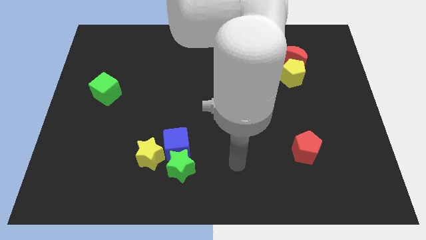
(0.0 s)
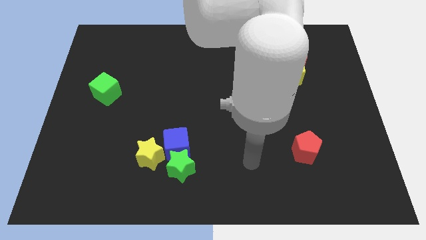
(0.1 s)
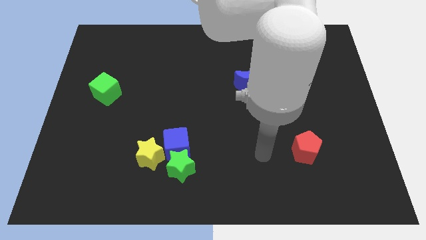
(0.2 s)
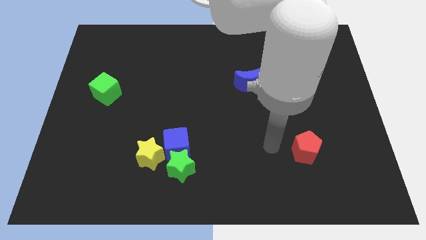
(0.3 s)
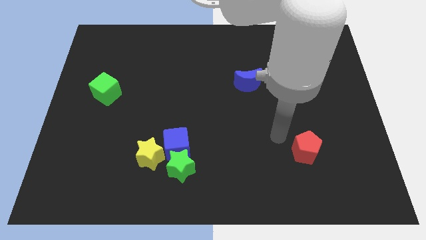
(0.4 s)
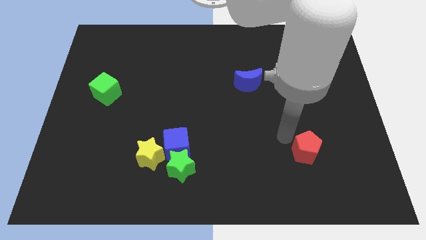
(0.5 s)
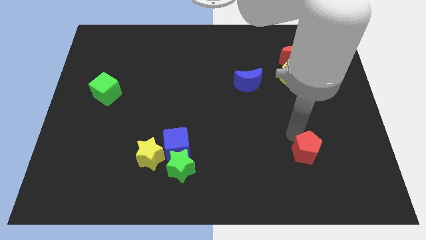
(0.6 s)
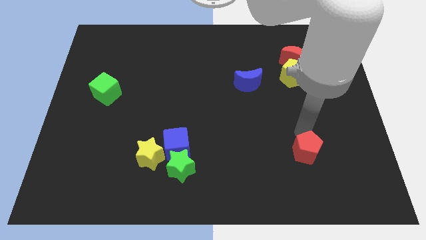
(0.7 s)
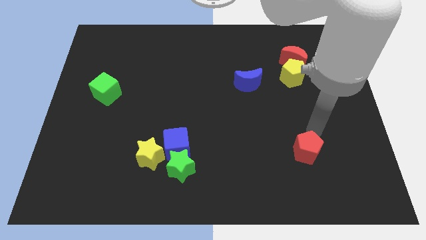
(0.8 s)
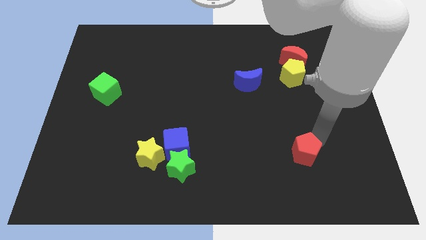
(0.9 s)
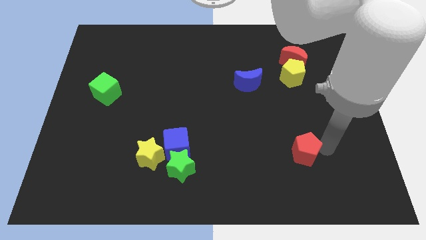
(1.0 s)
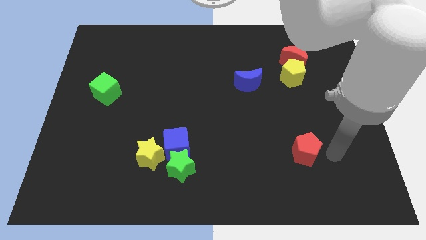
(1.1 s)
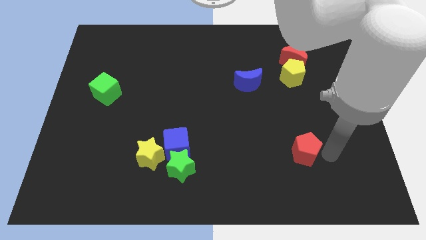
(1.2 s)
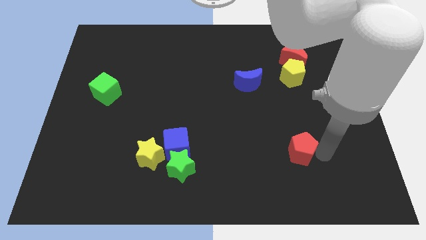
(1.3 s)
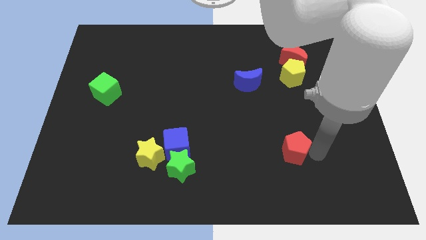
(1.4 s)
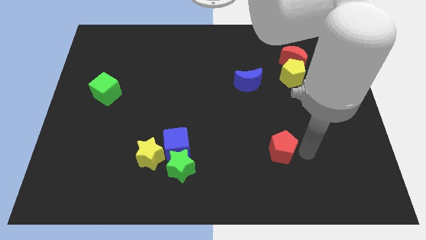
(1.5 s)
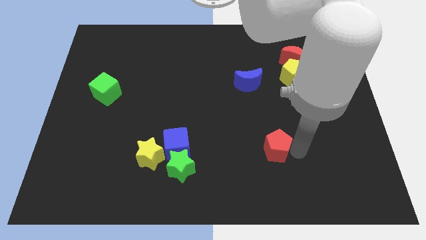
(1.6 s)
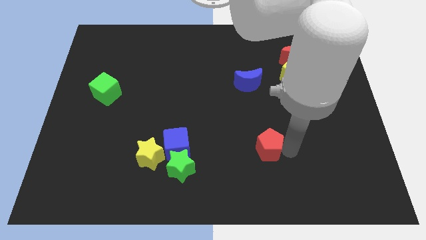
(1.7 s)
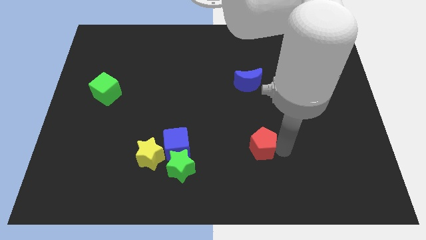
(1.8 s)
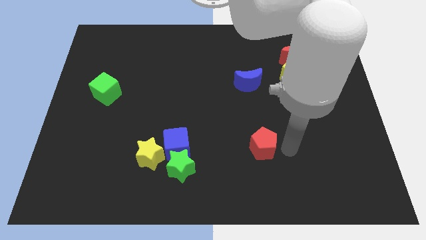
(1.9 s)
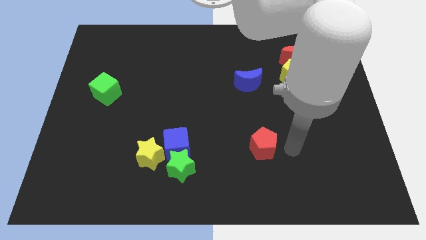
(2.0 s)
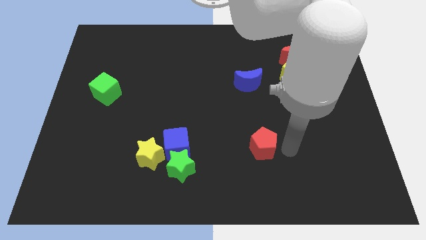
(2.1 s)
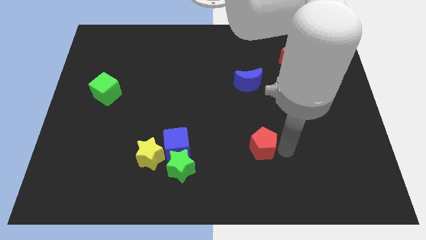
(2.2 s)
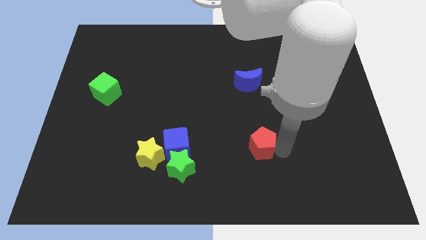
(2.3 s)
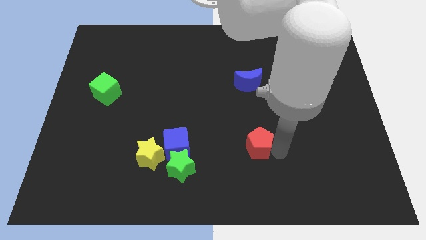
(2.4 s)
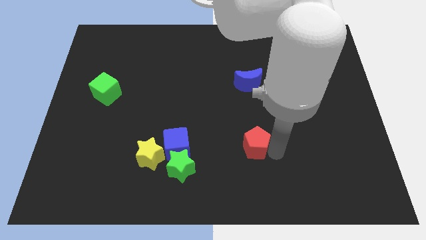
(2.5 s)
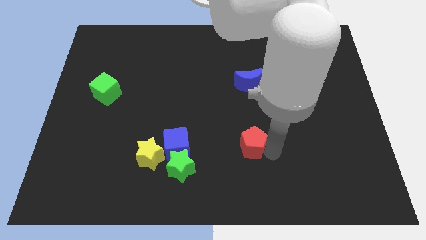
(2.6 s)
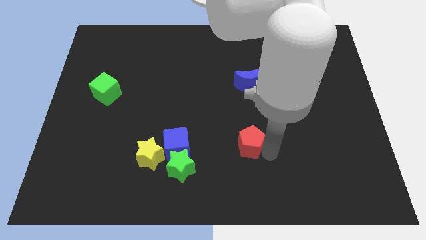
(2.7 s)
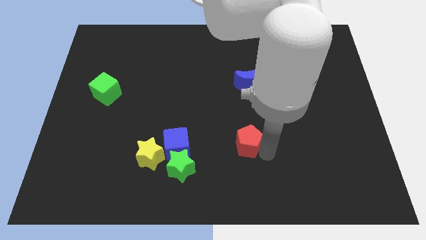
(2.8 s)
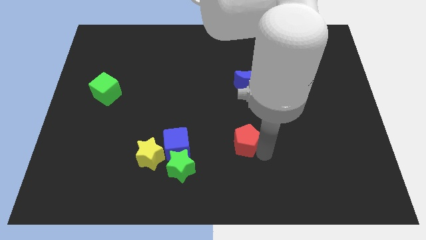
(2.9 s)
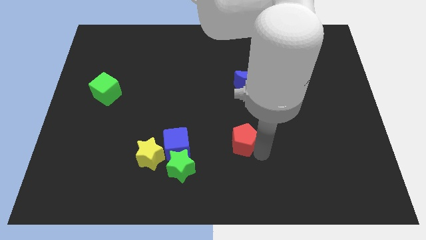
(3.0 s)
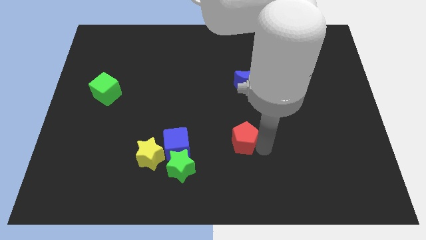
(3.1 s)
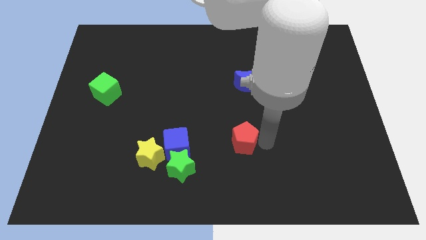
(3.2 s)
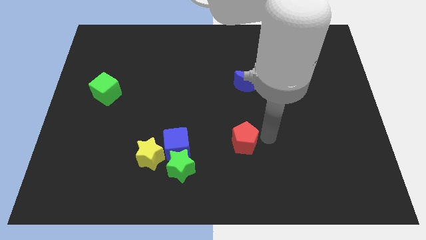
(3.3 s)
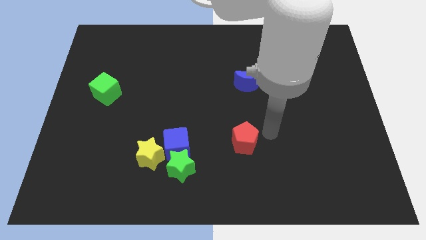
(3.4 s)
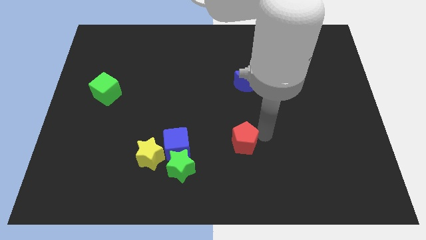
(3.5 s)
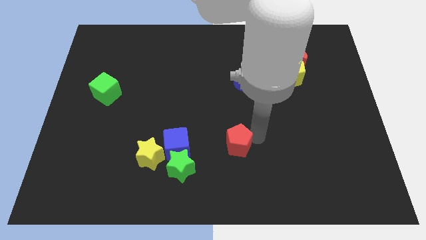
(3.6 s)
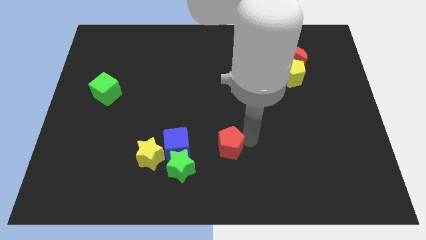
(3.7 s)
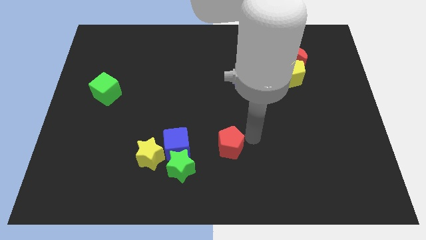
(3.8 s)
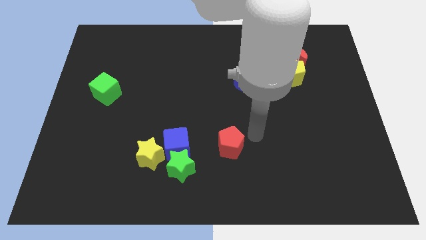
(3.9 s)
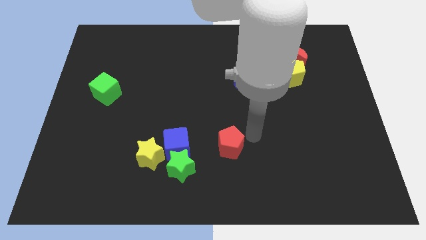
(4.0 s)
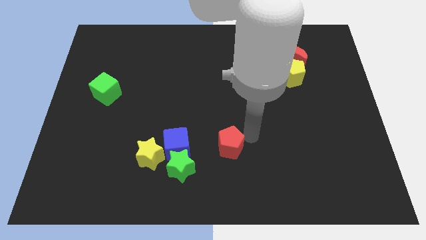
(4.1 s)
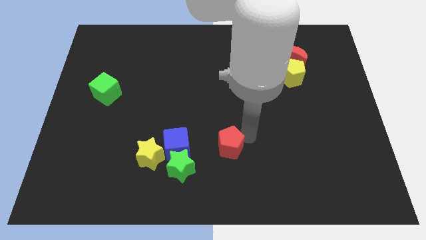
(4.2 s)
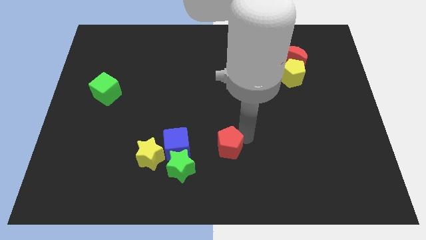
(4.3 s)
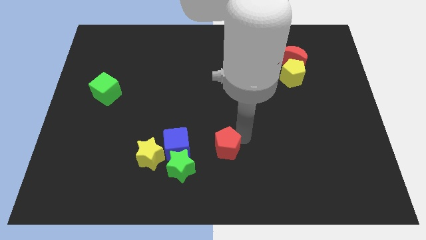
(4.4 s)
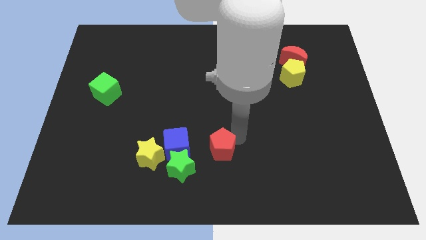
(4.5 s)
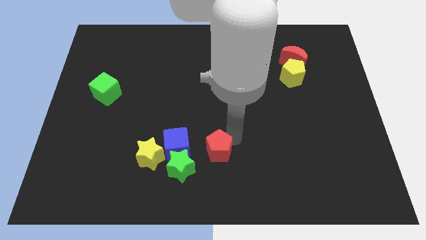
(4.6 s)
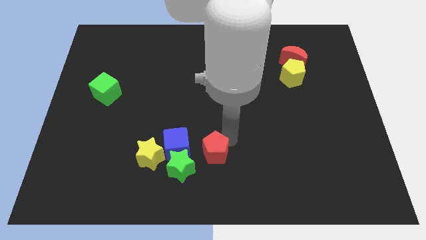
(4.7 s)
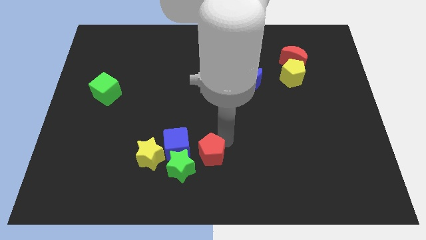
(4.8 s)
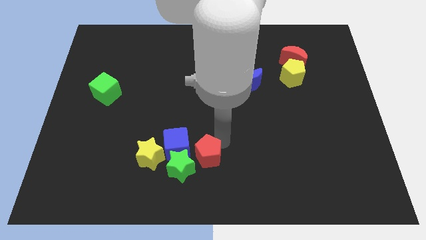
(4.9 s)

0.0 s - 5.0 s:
slide the red pentagon next to the green star

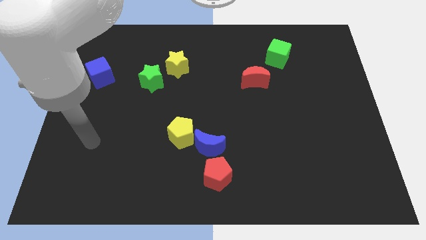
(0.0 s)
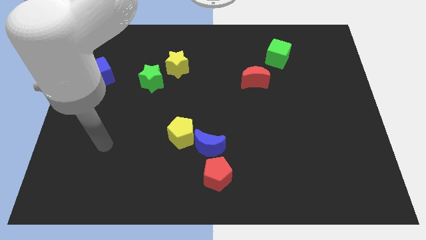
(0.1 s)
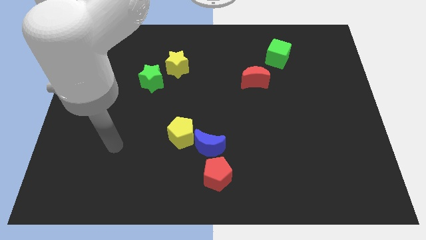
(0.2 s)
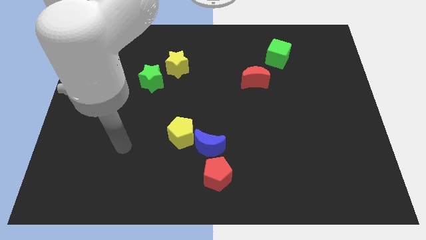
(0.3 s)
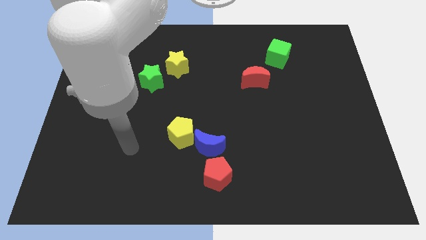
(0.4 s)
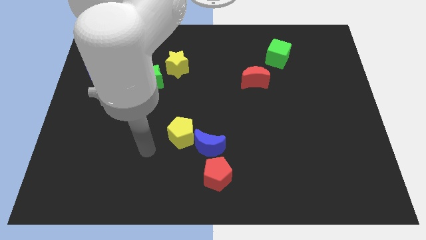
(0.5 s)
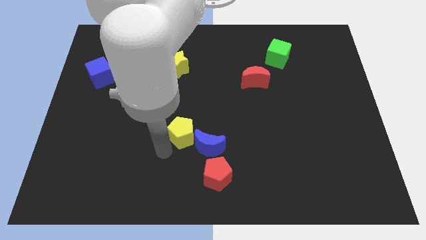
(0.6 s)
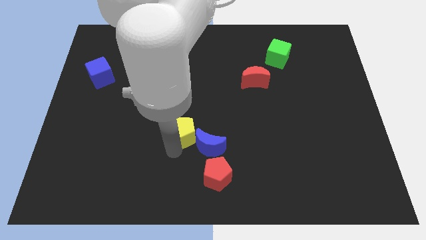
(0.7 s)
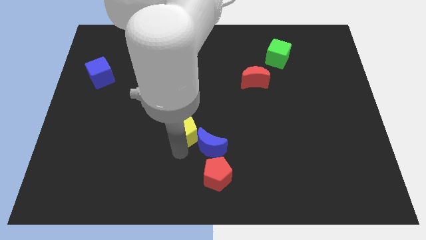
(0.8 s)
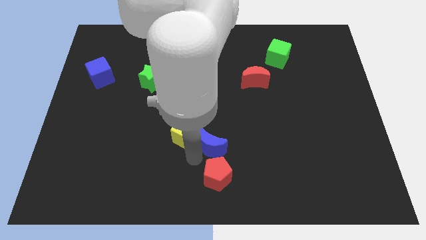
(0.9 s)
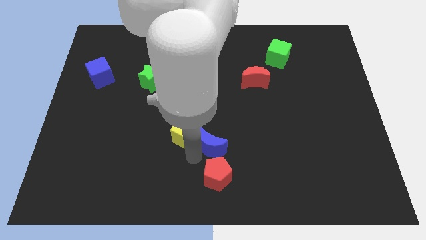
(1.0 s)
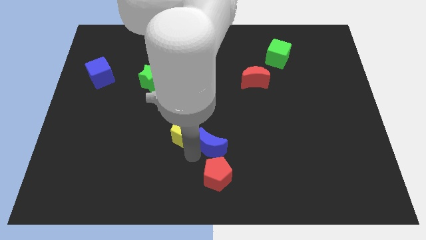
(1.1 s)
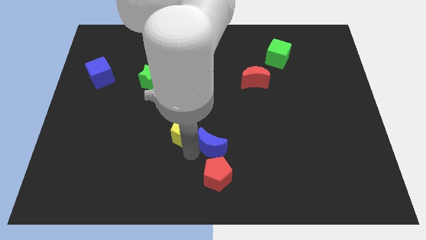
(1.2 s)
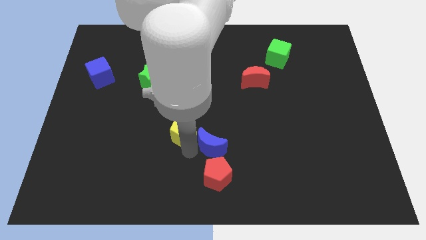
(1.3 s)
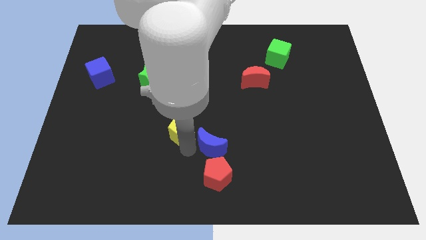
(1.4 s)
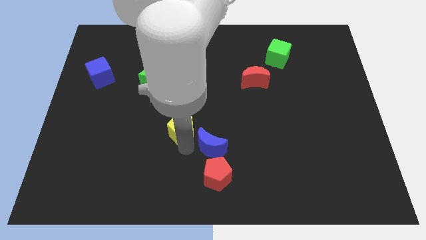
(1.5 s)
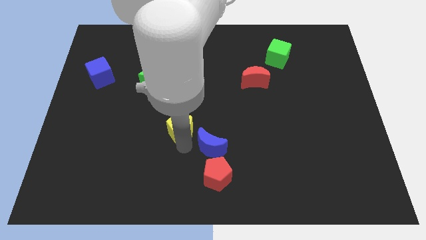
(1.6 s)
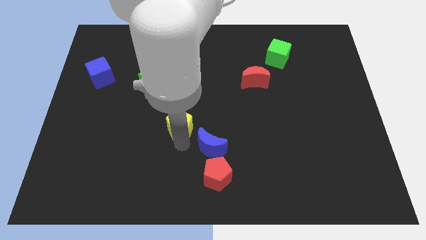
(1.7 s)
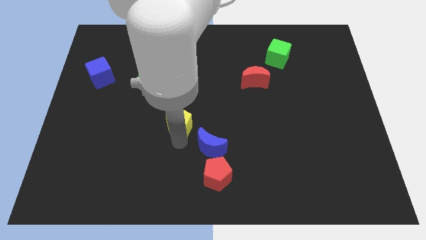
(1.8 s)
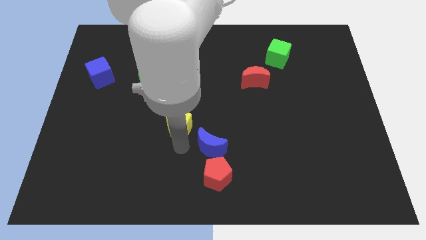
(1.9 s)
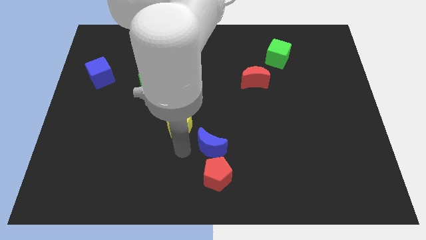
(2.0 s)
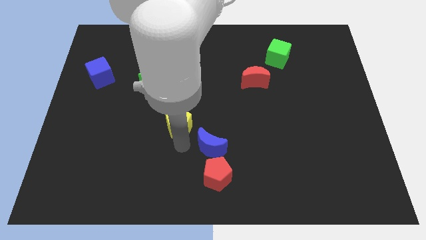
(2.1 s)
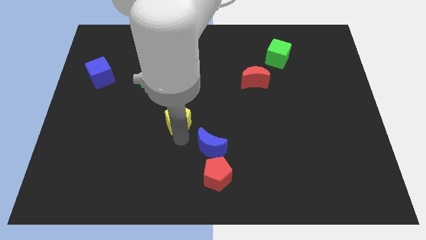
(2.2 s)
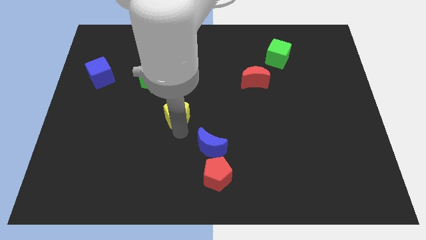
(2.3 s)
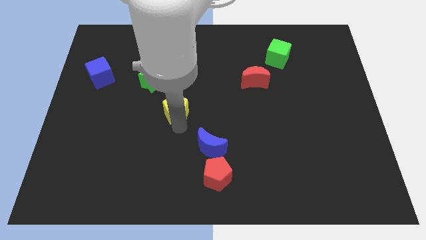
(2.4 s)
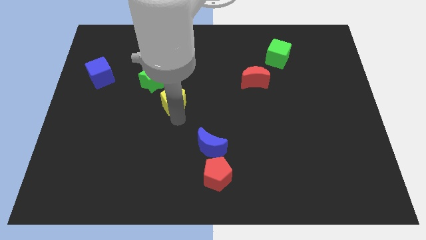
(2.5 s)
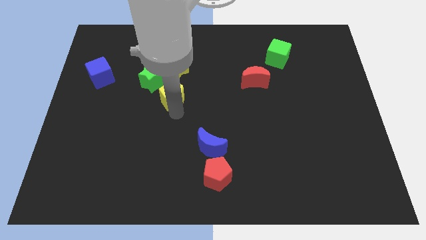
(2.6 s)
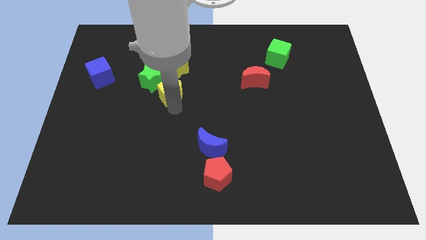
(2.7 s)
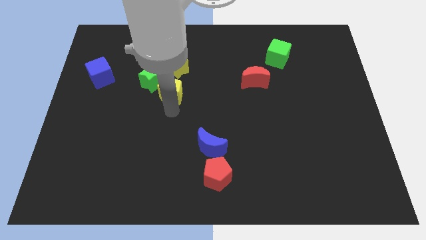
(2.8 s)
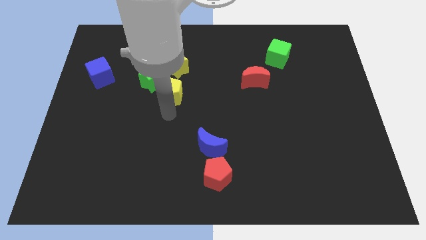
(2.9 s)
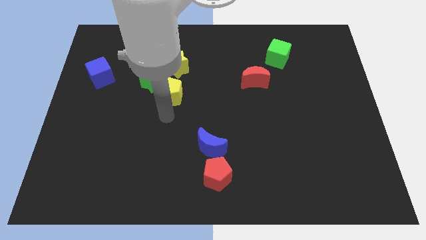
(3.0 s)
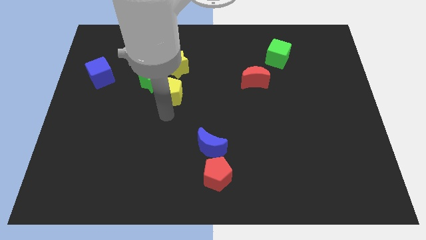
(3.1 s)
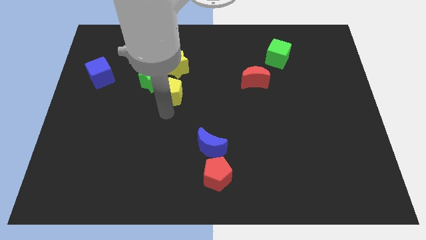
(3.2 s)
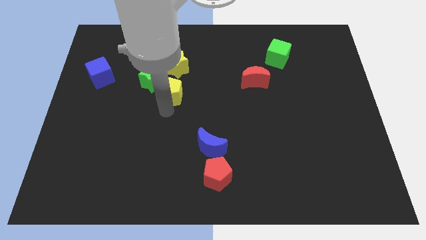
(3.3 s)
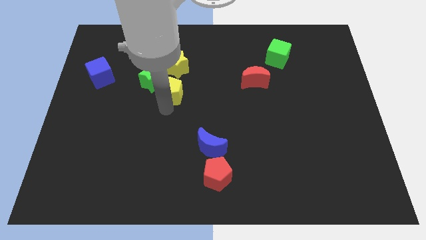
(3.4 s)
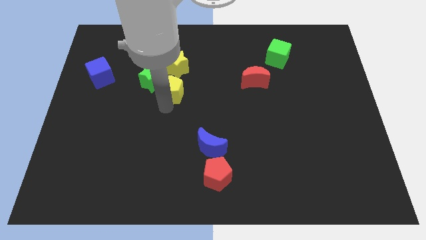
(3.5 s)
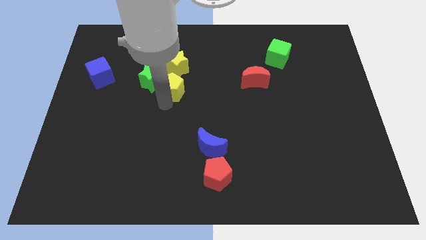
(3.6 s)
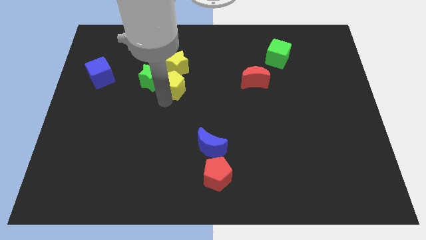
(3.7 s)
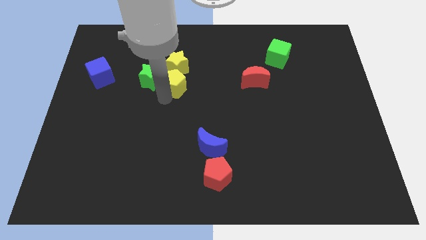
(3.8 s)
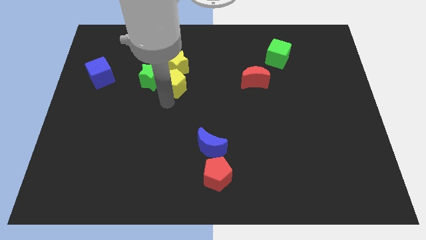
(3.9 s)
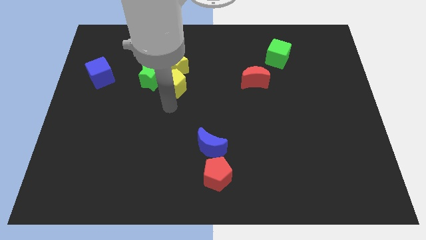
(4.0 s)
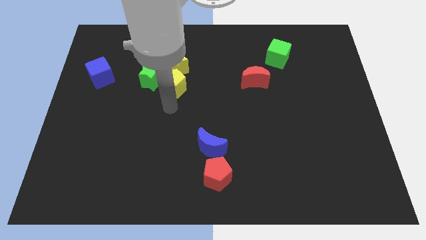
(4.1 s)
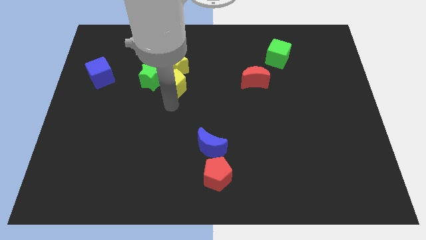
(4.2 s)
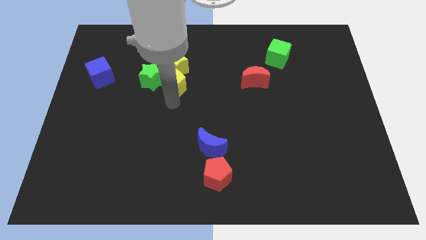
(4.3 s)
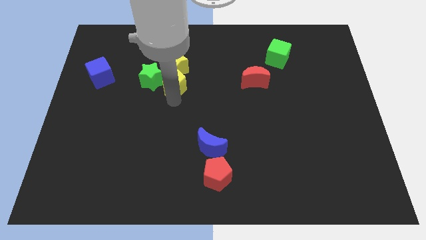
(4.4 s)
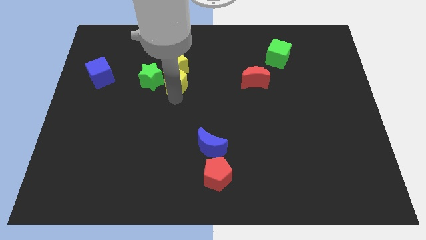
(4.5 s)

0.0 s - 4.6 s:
put the yellow pentagon to the yellow star
